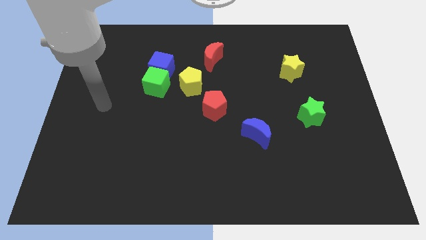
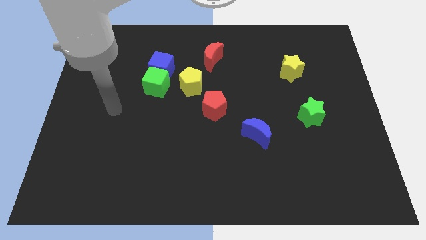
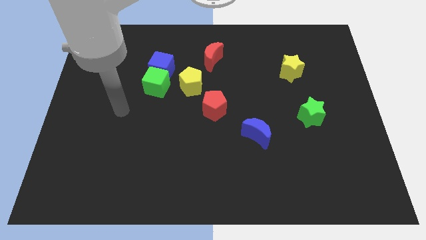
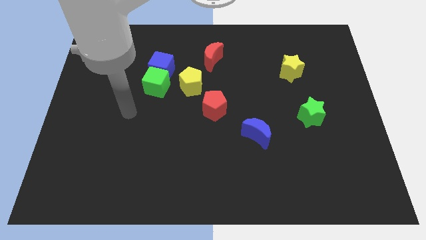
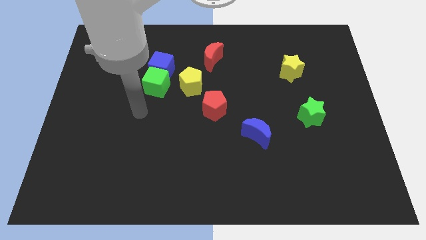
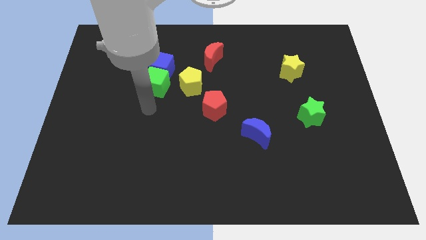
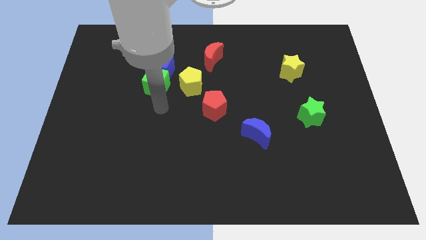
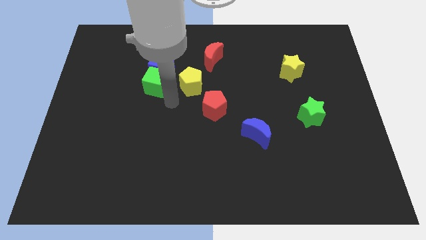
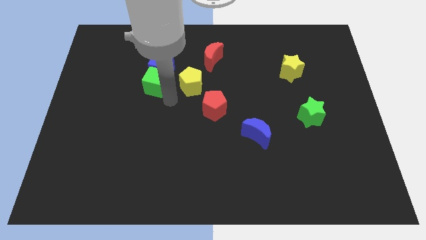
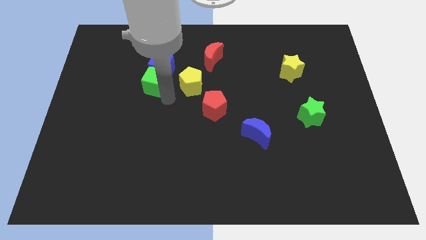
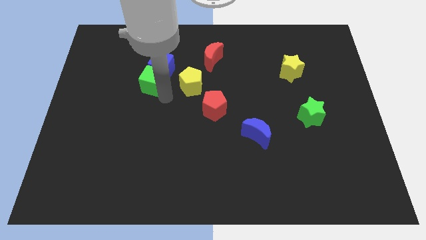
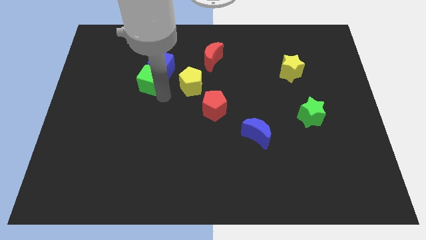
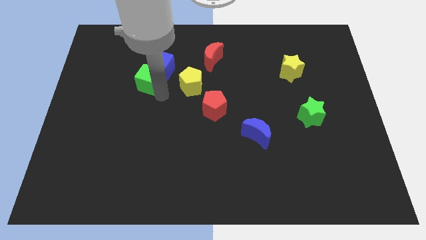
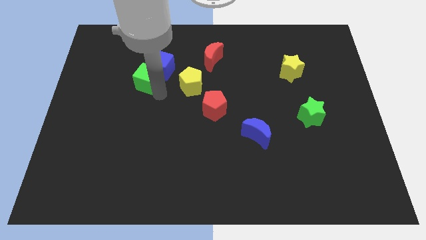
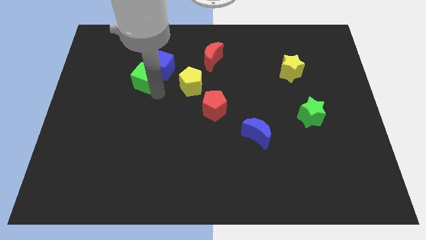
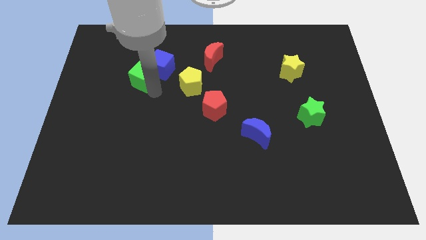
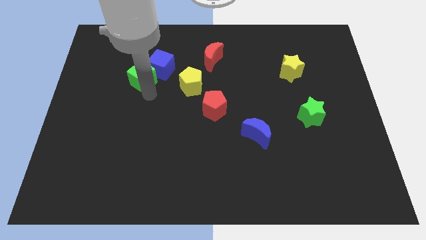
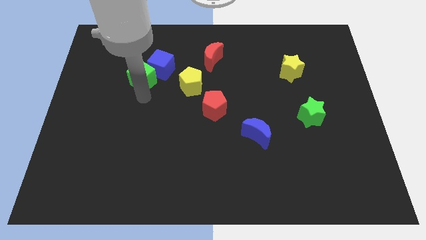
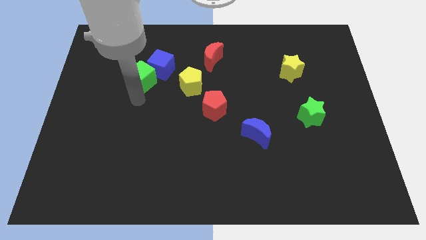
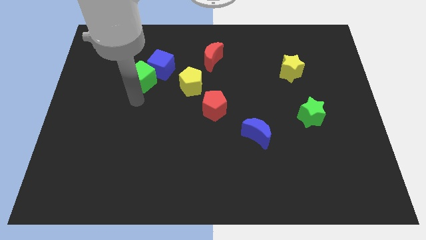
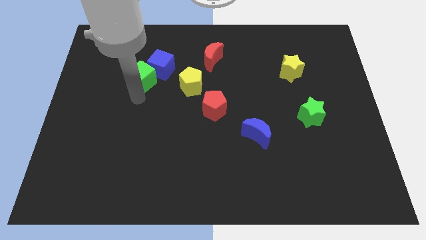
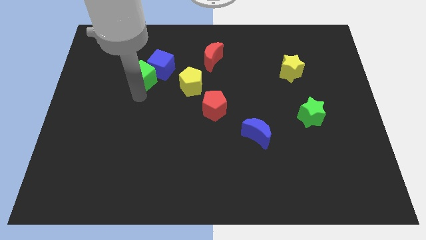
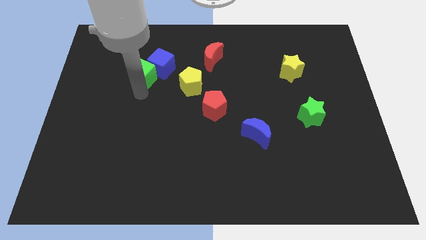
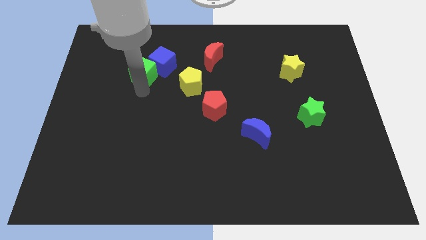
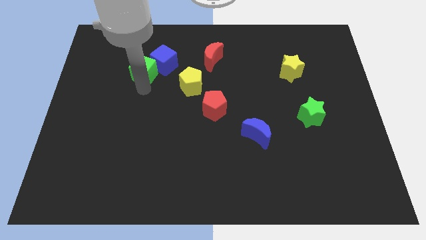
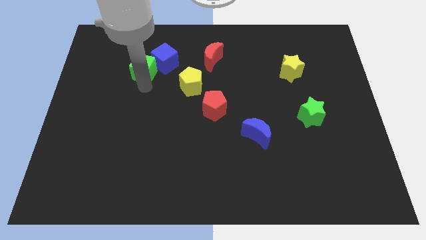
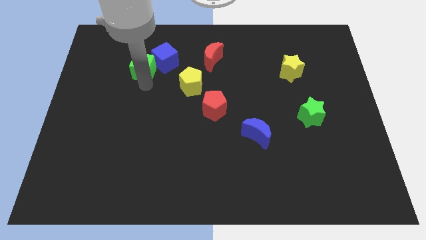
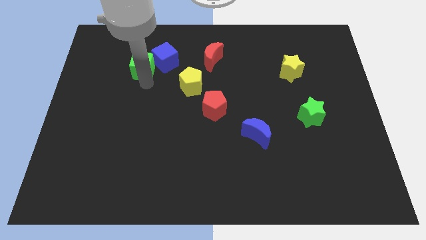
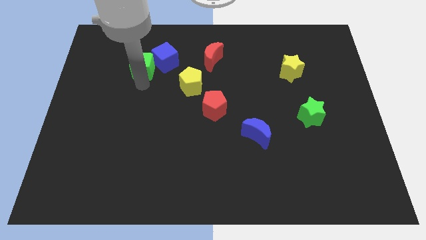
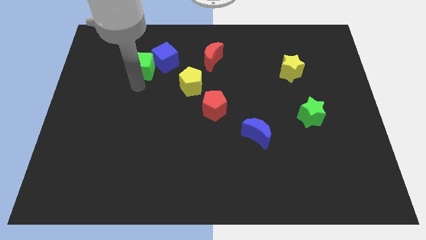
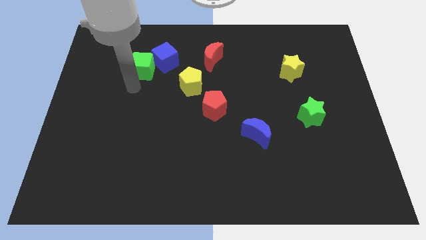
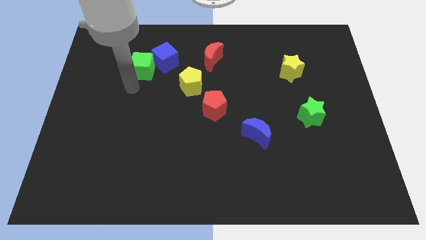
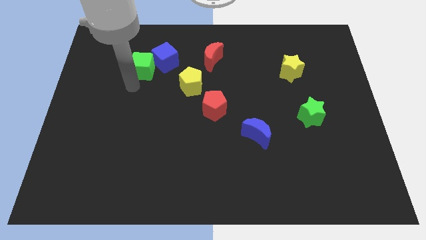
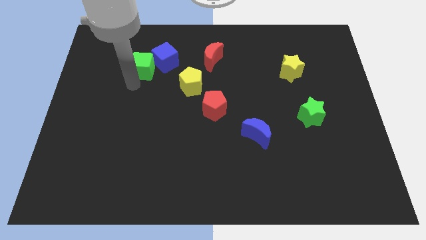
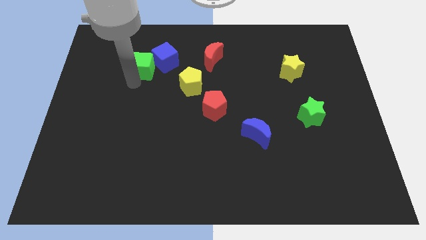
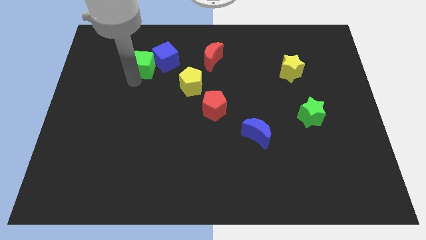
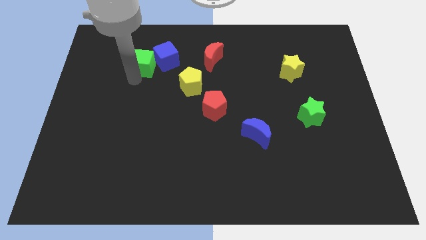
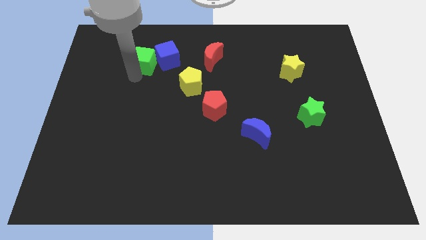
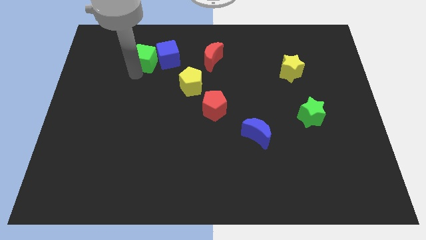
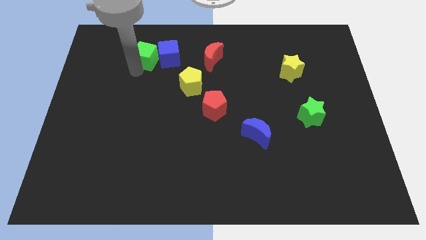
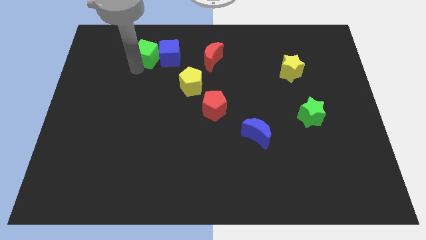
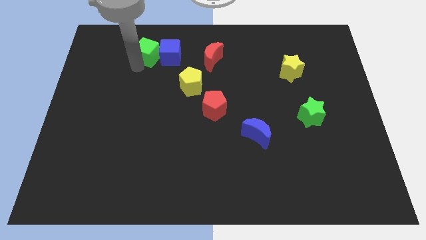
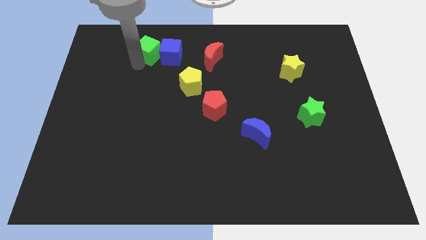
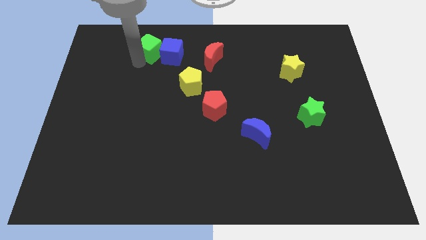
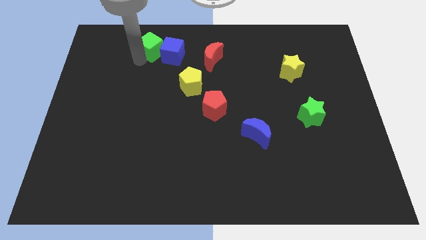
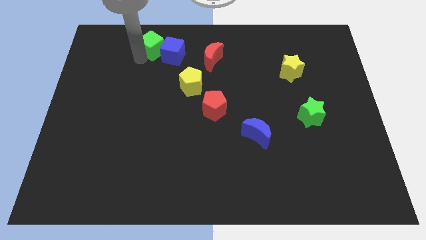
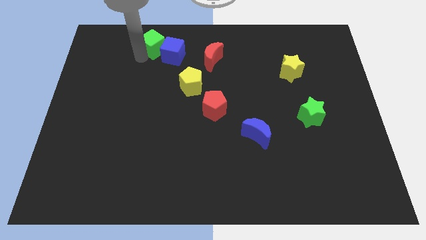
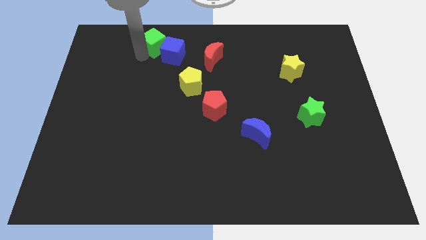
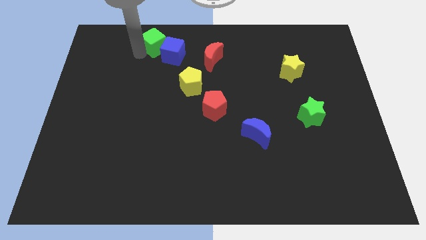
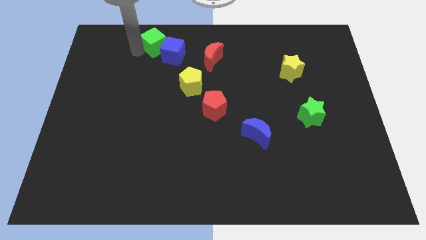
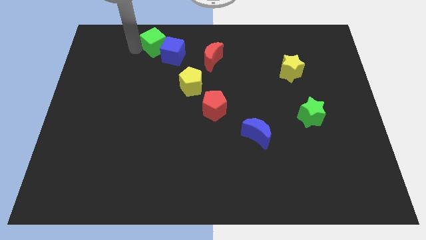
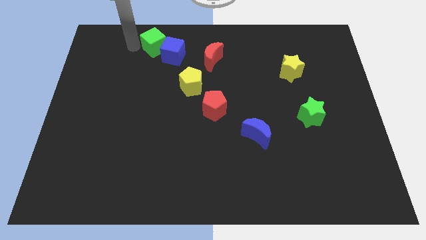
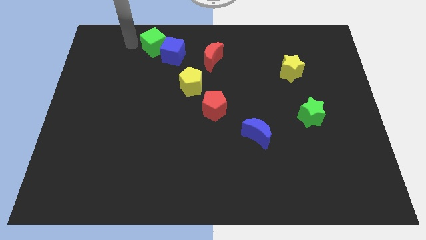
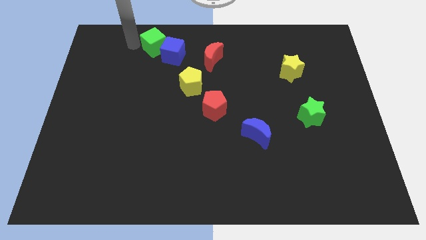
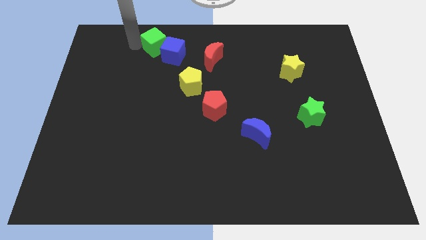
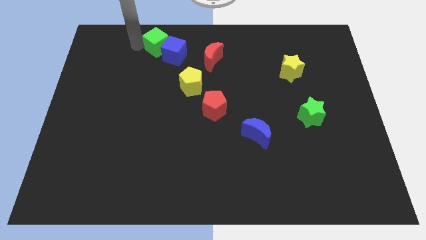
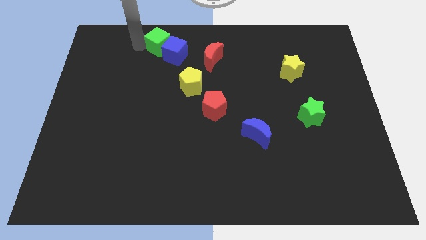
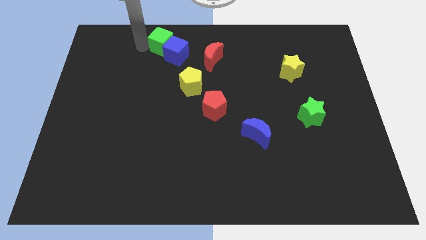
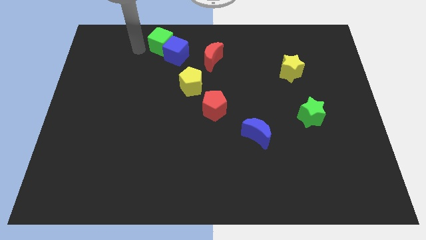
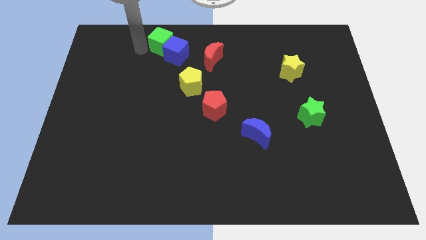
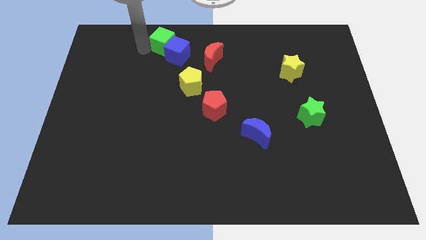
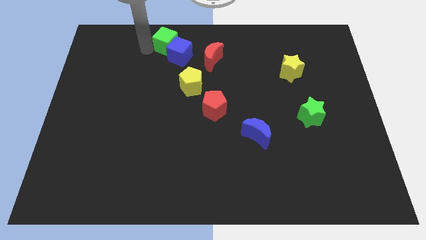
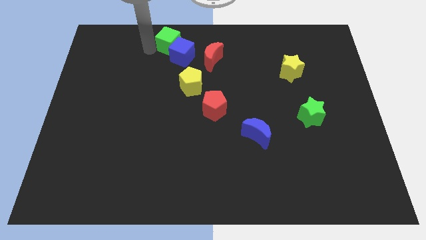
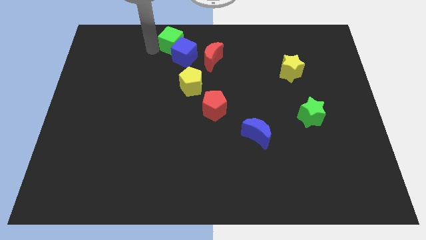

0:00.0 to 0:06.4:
put the green cube to the top

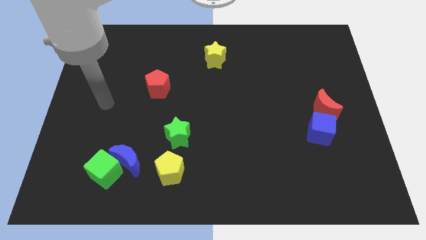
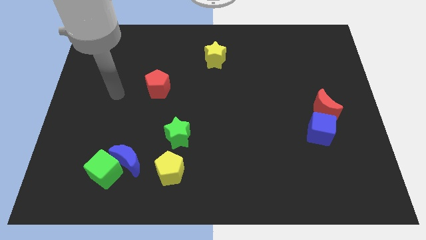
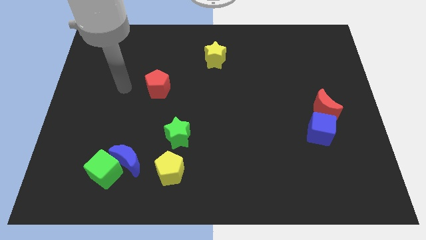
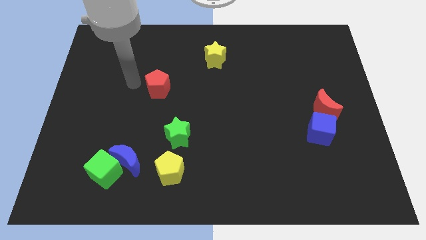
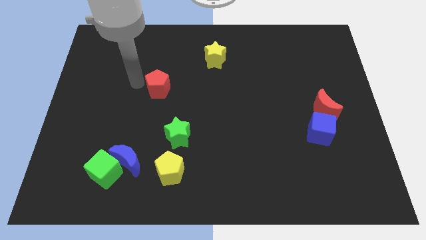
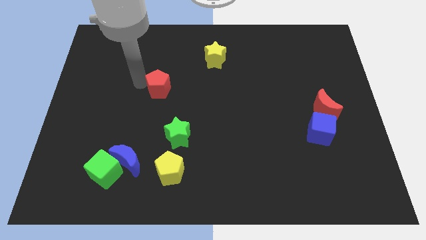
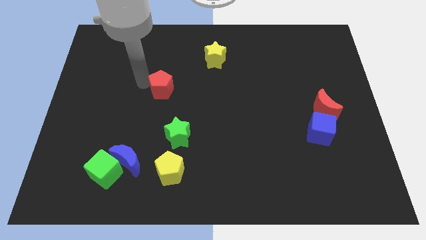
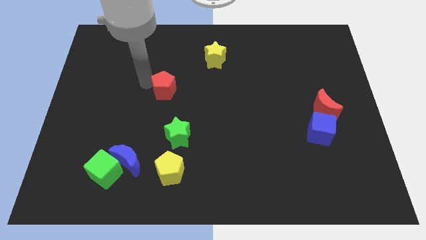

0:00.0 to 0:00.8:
move the red pentagon to the center of the board
